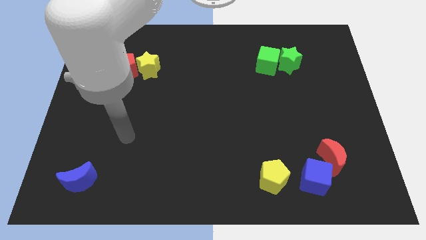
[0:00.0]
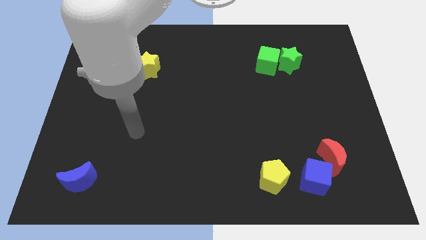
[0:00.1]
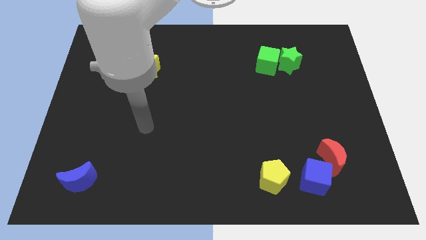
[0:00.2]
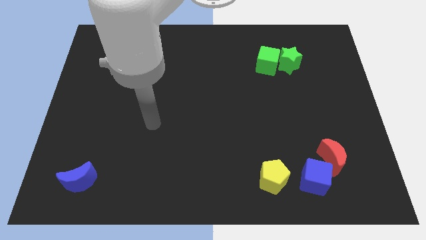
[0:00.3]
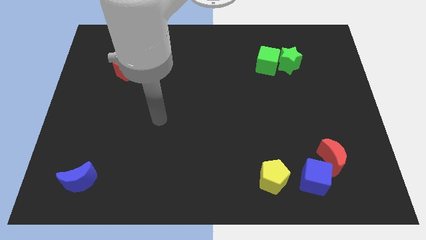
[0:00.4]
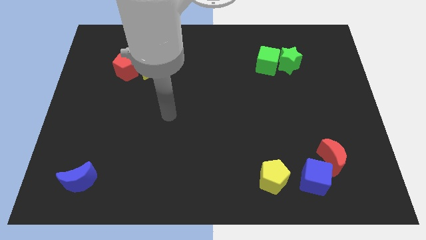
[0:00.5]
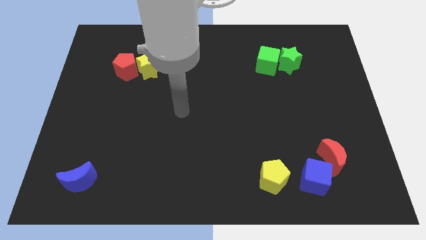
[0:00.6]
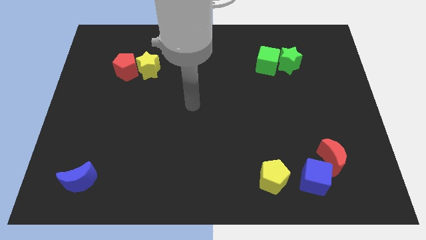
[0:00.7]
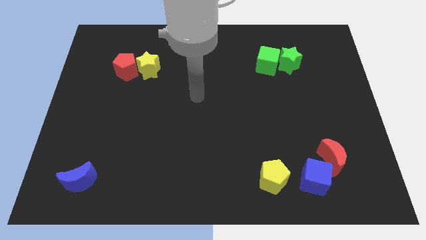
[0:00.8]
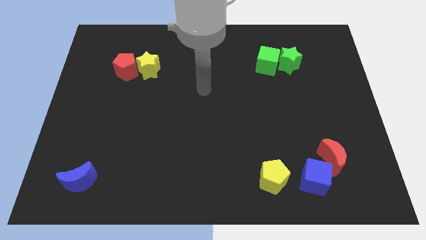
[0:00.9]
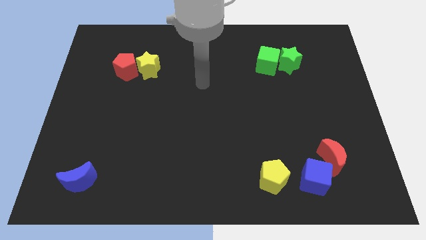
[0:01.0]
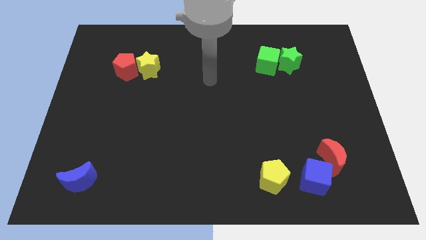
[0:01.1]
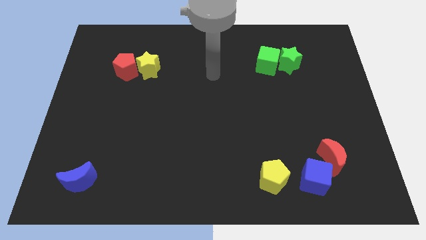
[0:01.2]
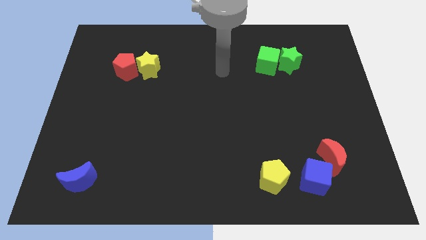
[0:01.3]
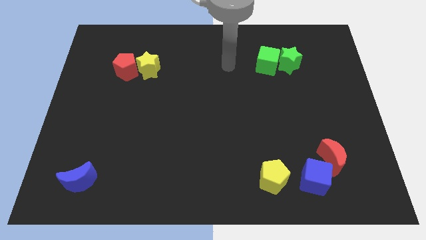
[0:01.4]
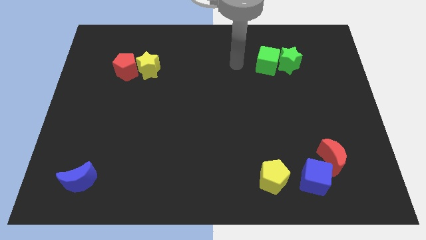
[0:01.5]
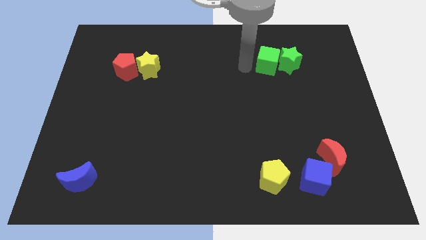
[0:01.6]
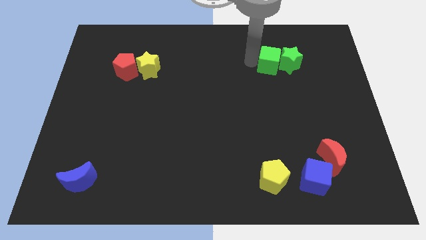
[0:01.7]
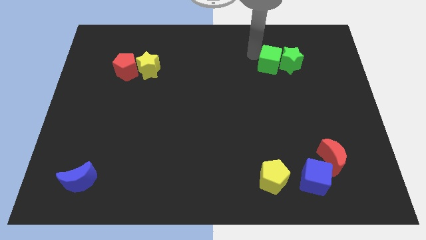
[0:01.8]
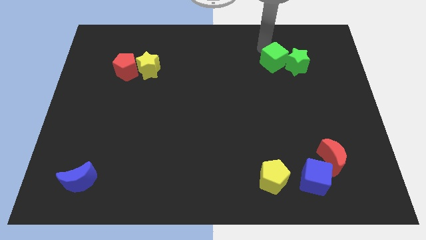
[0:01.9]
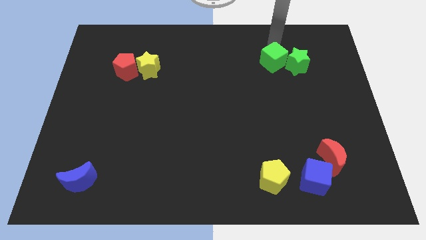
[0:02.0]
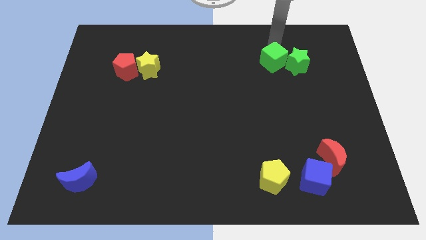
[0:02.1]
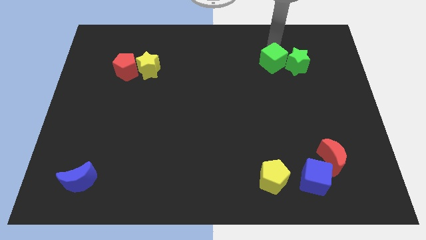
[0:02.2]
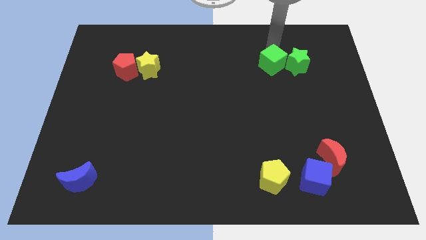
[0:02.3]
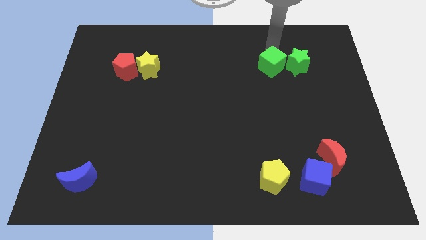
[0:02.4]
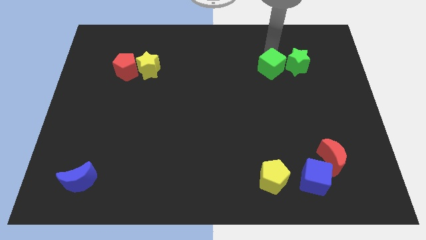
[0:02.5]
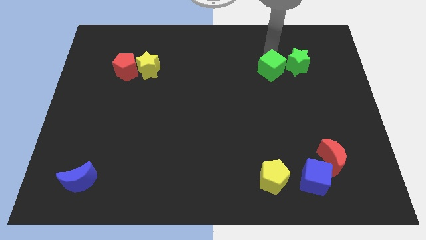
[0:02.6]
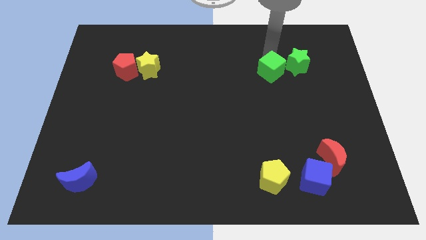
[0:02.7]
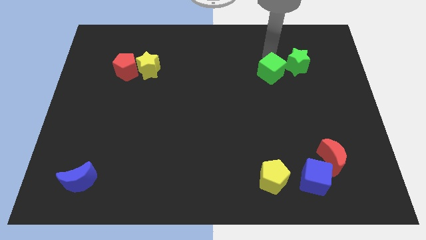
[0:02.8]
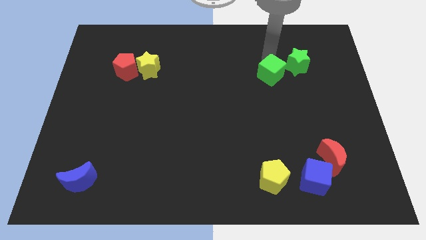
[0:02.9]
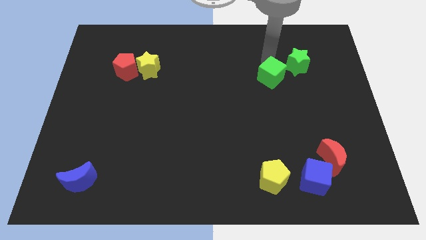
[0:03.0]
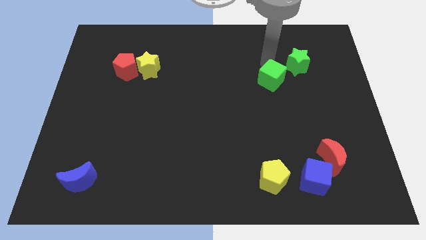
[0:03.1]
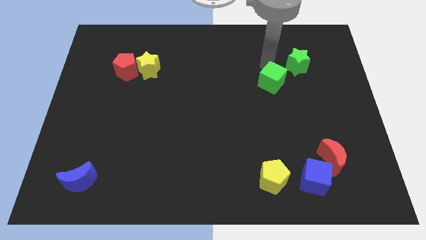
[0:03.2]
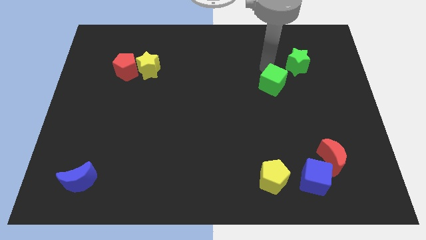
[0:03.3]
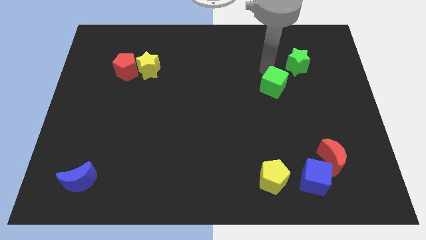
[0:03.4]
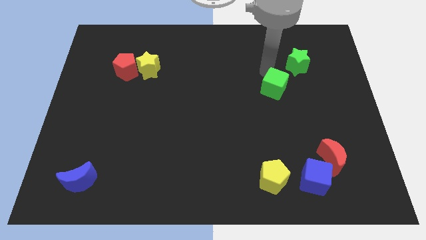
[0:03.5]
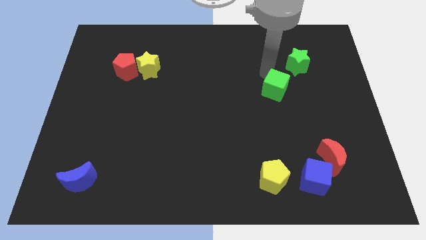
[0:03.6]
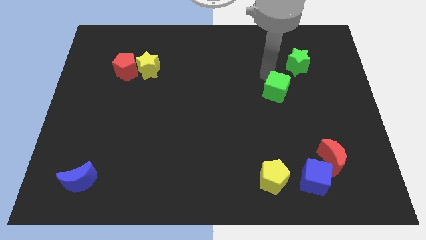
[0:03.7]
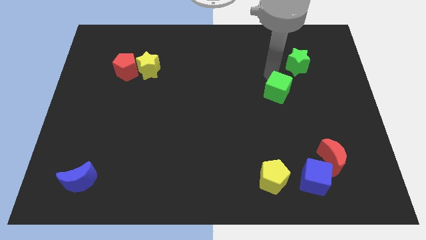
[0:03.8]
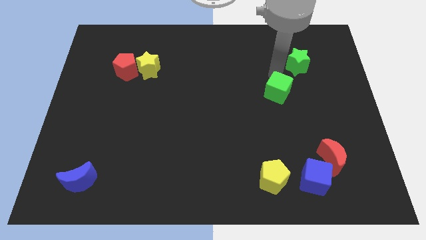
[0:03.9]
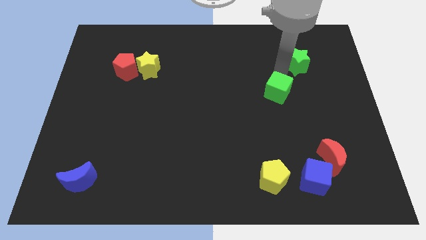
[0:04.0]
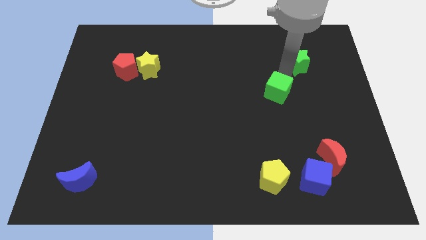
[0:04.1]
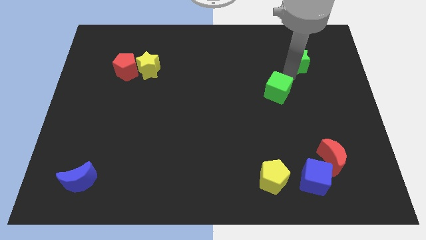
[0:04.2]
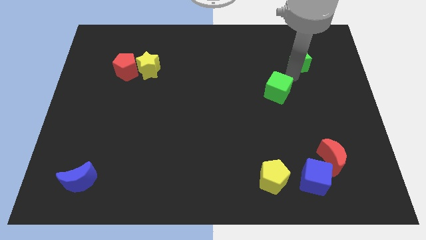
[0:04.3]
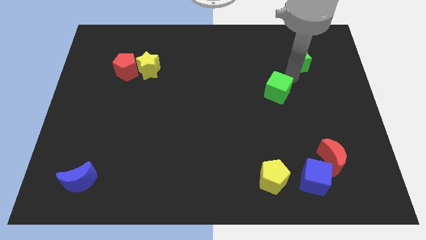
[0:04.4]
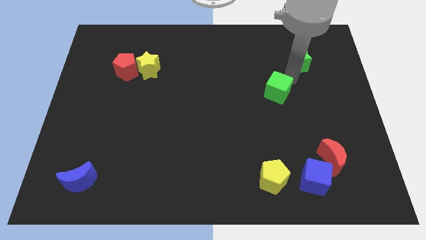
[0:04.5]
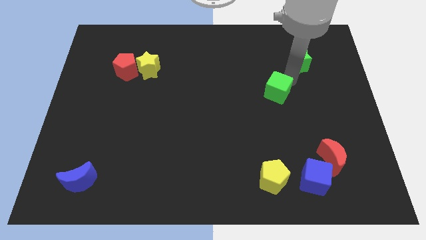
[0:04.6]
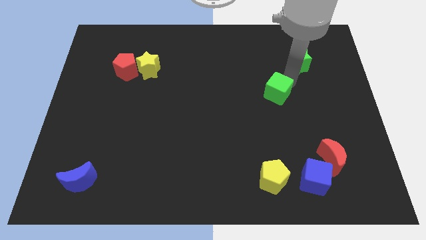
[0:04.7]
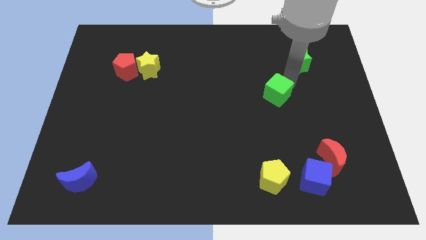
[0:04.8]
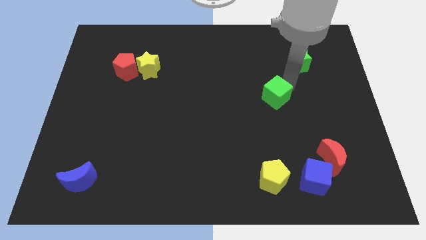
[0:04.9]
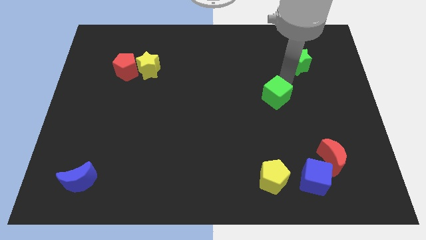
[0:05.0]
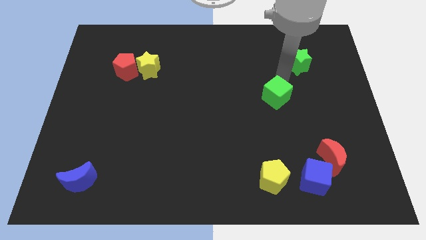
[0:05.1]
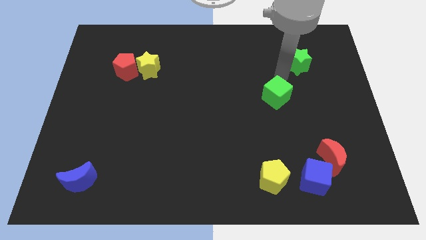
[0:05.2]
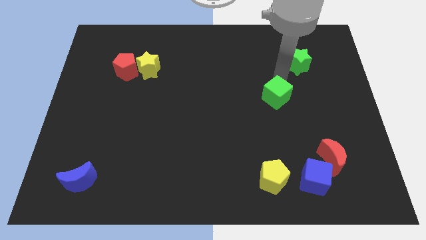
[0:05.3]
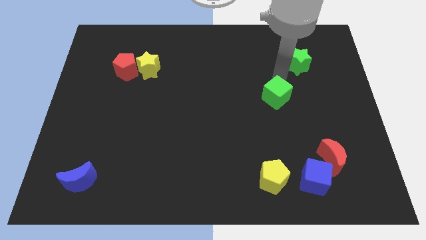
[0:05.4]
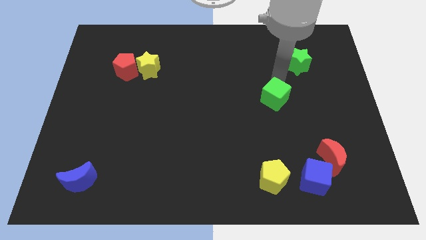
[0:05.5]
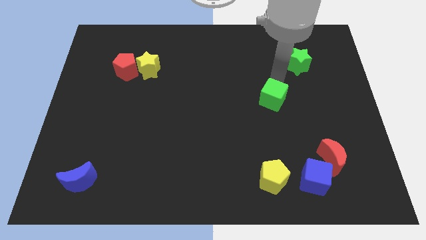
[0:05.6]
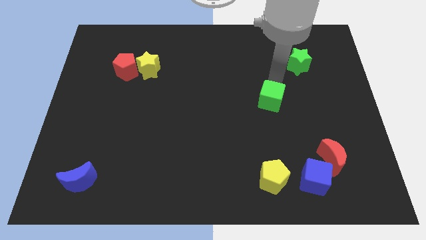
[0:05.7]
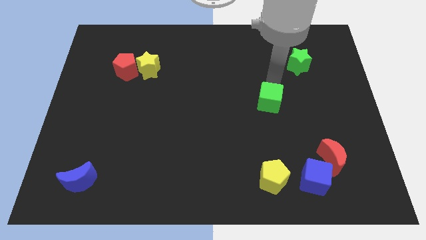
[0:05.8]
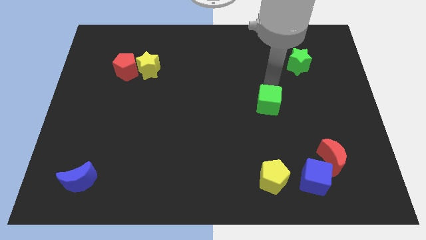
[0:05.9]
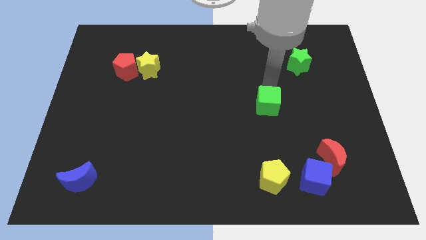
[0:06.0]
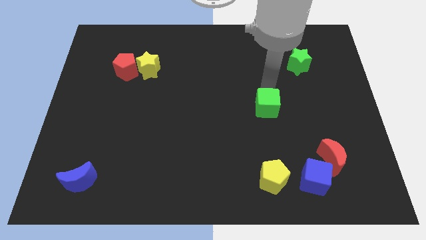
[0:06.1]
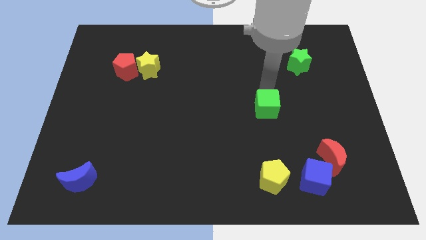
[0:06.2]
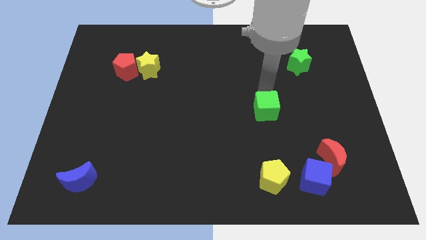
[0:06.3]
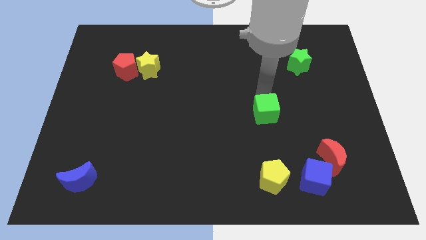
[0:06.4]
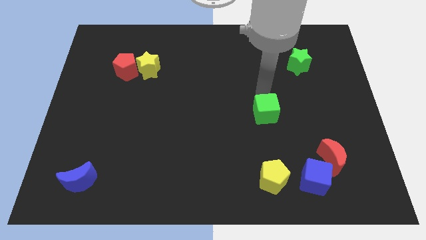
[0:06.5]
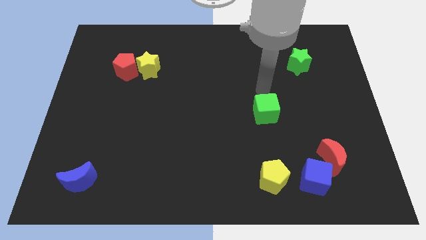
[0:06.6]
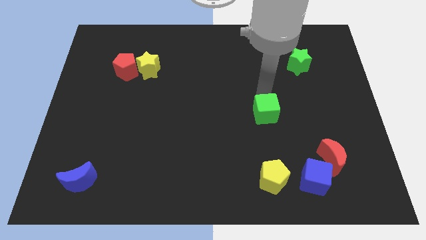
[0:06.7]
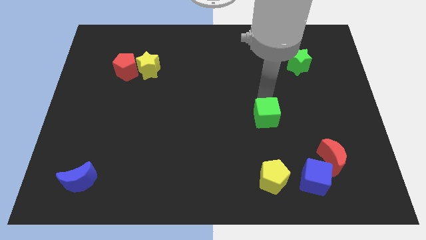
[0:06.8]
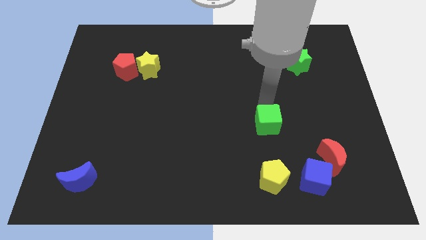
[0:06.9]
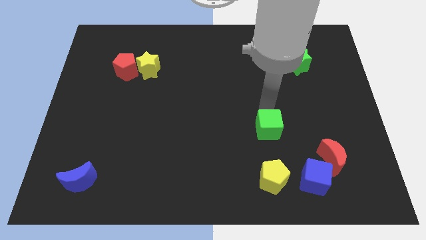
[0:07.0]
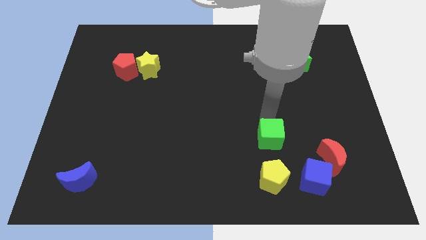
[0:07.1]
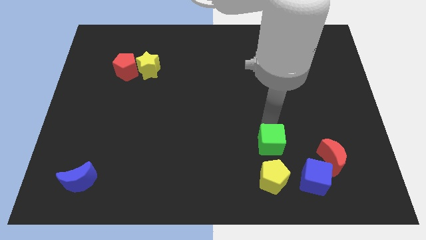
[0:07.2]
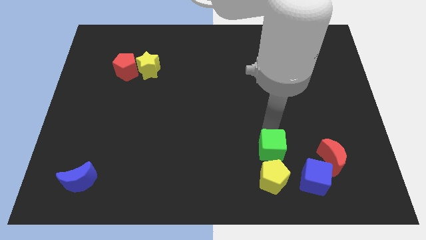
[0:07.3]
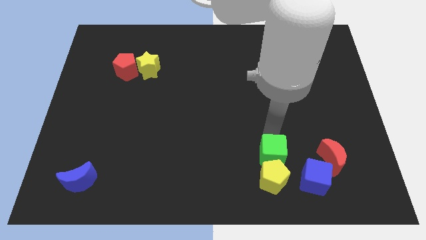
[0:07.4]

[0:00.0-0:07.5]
put the green cube to the yellow pentagon
